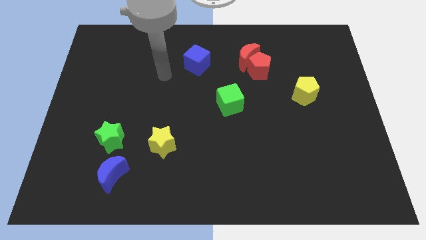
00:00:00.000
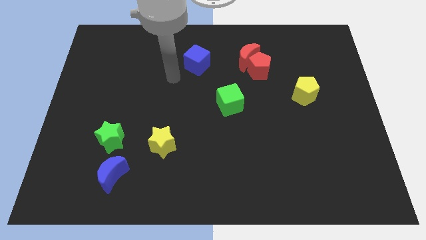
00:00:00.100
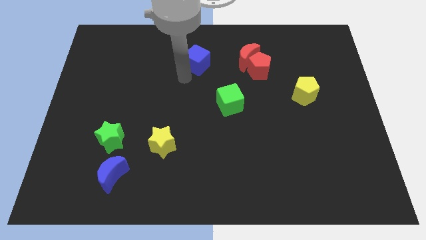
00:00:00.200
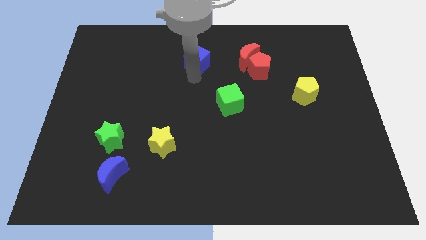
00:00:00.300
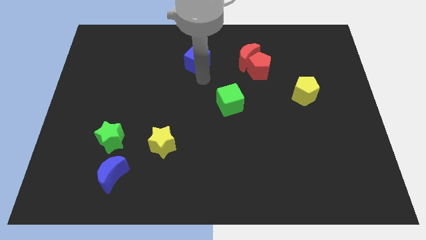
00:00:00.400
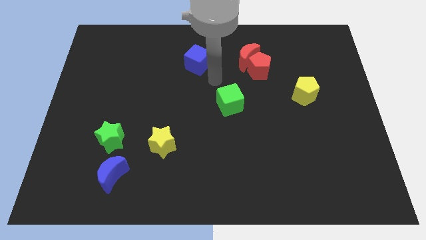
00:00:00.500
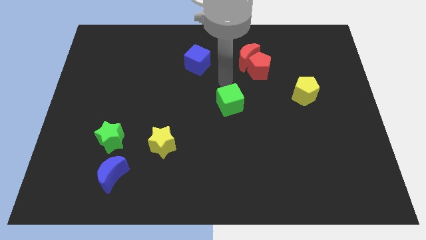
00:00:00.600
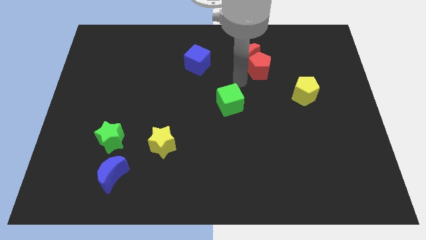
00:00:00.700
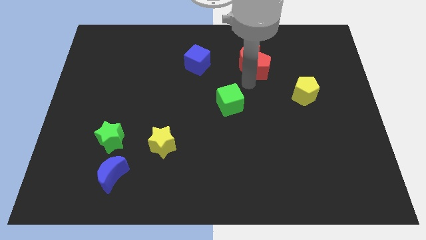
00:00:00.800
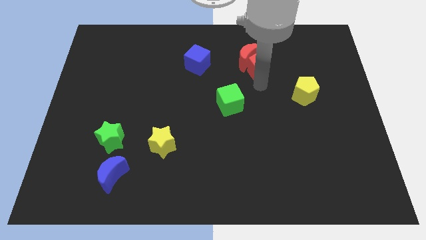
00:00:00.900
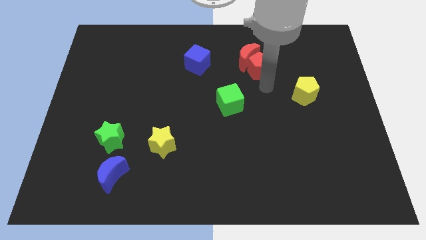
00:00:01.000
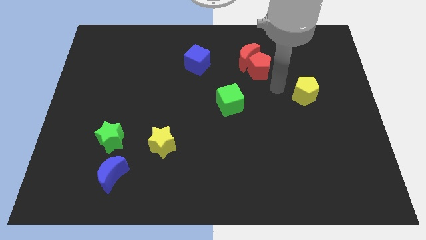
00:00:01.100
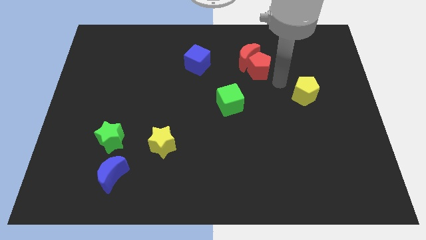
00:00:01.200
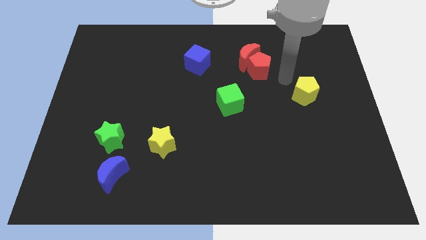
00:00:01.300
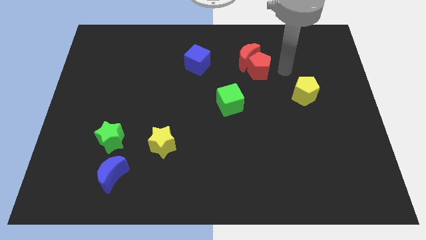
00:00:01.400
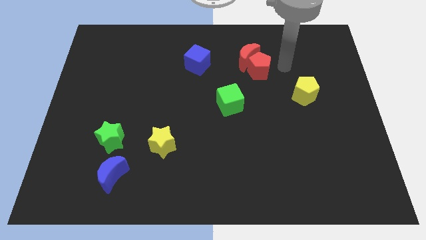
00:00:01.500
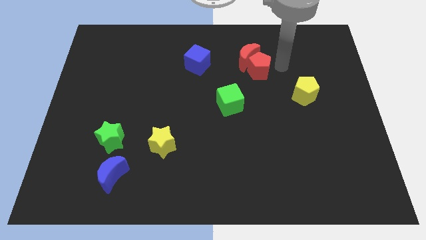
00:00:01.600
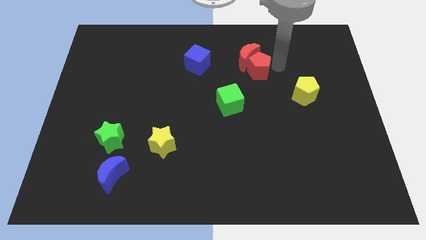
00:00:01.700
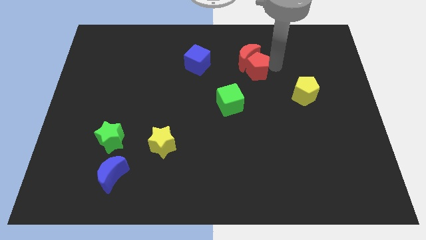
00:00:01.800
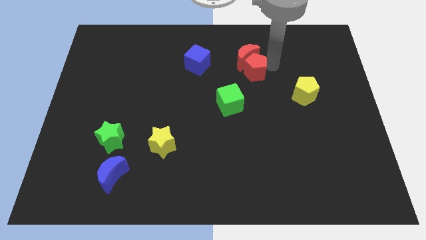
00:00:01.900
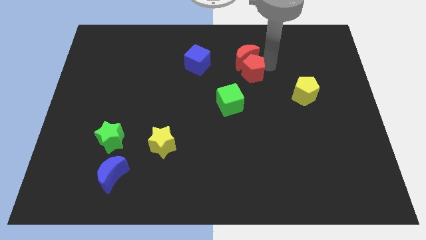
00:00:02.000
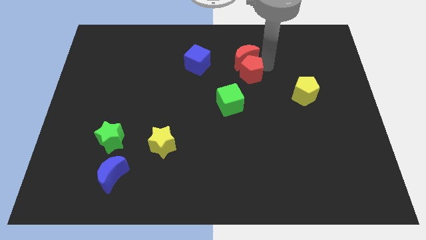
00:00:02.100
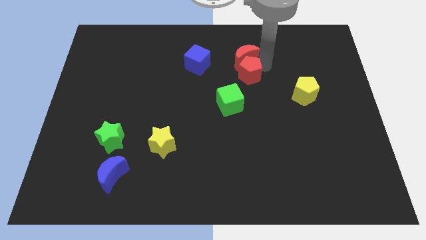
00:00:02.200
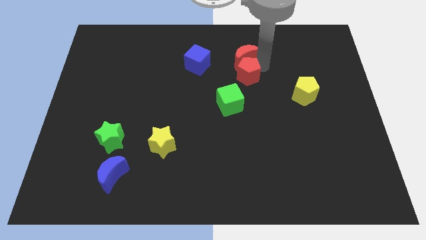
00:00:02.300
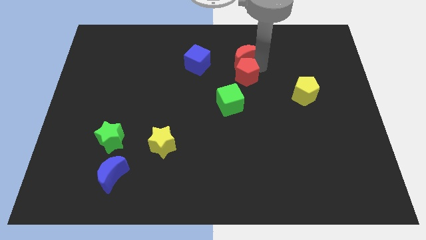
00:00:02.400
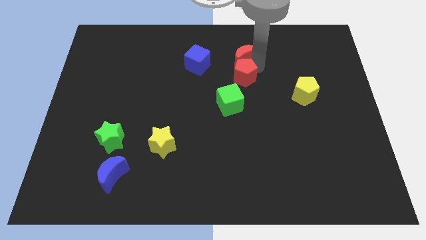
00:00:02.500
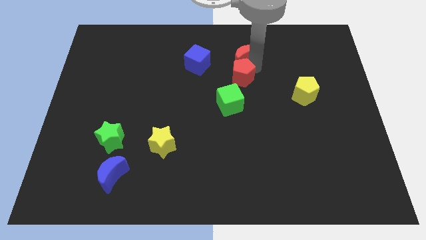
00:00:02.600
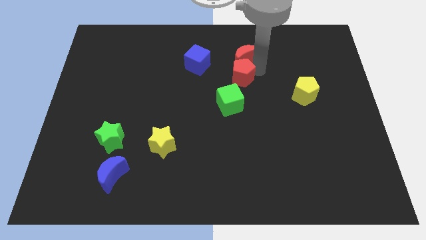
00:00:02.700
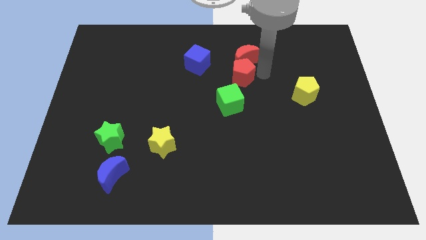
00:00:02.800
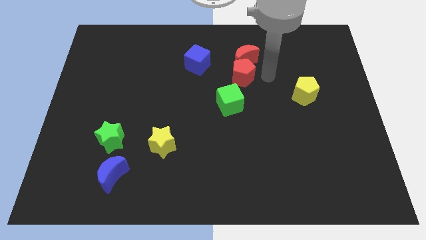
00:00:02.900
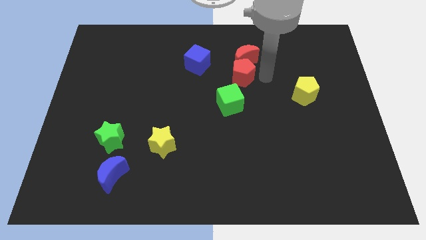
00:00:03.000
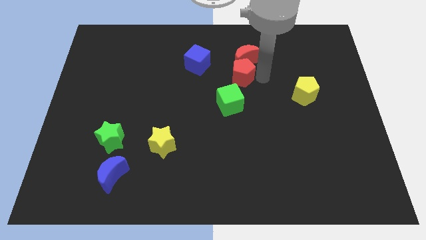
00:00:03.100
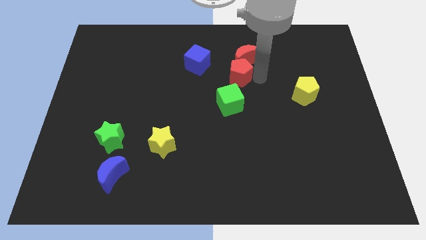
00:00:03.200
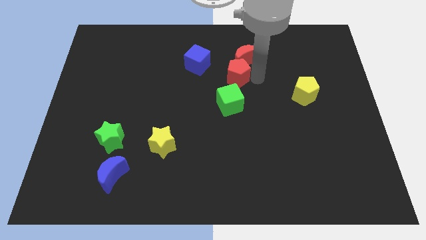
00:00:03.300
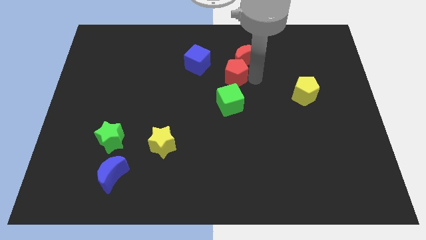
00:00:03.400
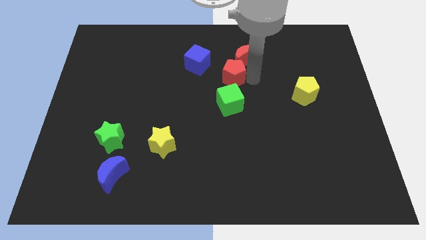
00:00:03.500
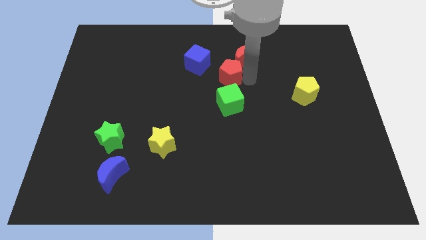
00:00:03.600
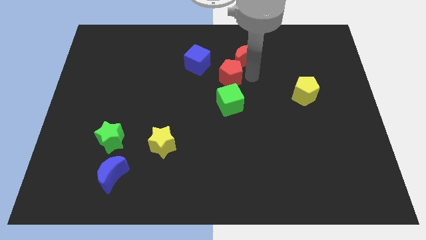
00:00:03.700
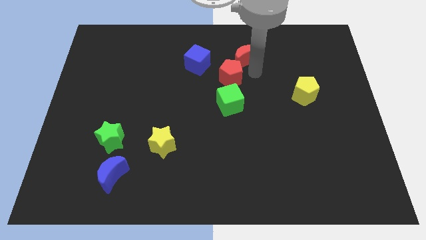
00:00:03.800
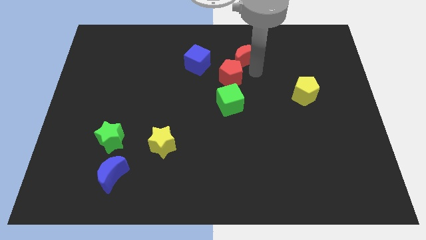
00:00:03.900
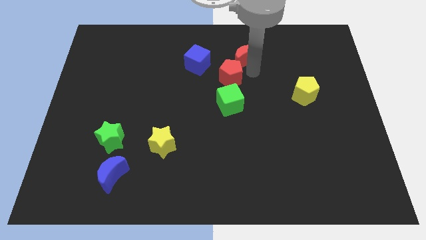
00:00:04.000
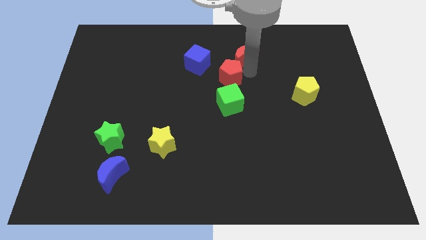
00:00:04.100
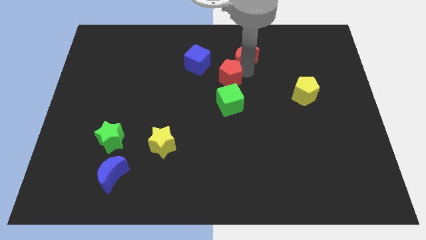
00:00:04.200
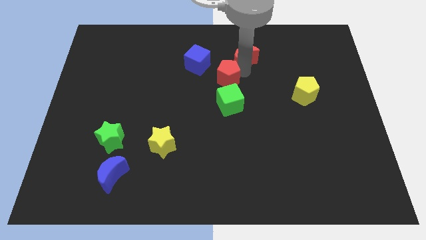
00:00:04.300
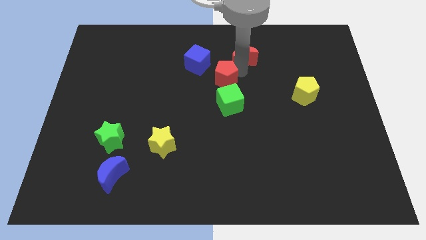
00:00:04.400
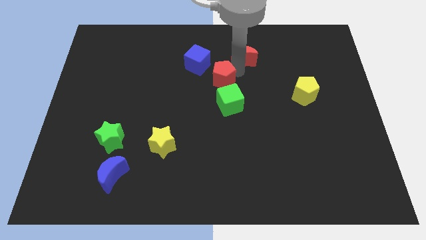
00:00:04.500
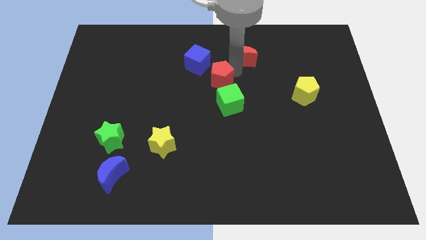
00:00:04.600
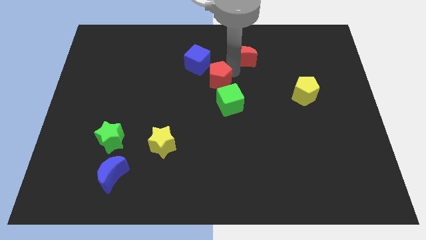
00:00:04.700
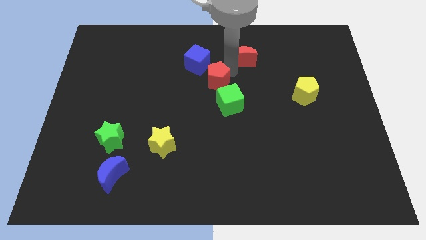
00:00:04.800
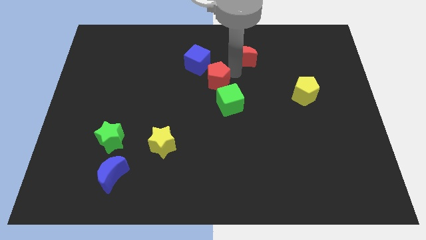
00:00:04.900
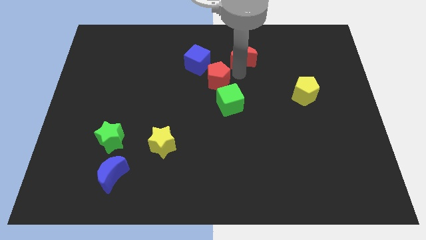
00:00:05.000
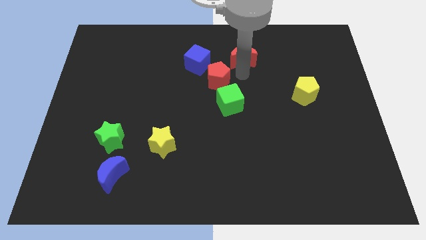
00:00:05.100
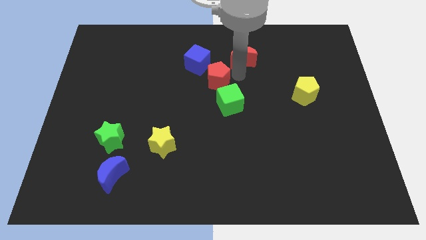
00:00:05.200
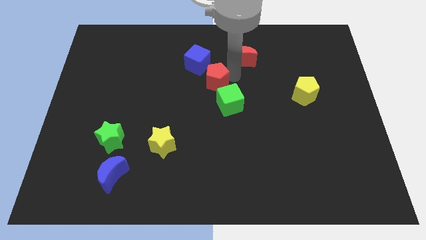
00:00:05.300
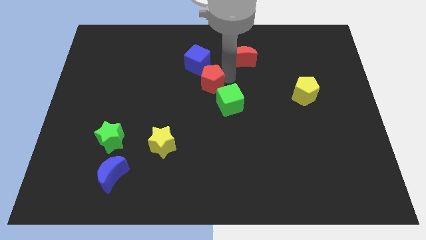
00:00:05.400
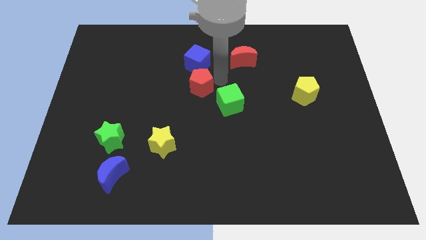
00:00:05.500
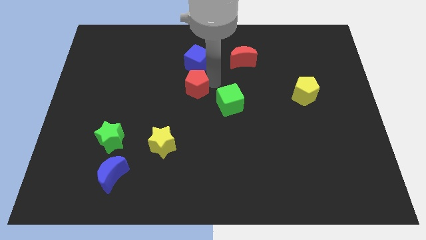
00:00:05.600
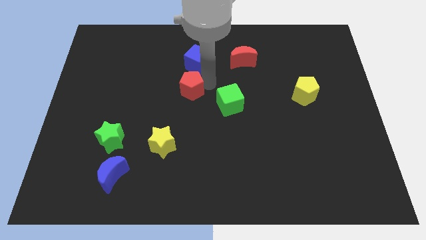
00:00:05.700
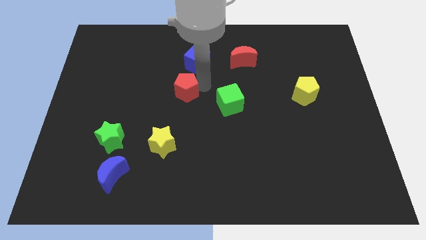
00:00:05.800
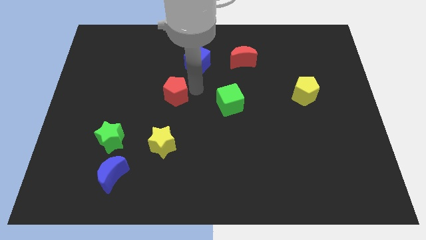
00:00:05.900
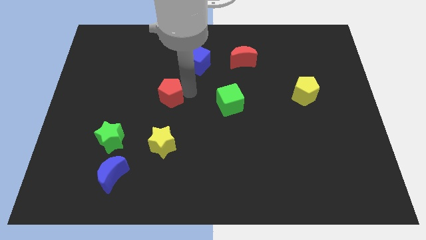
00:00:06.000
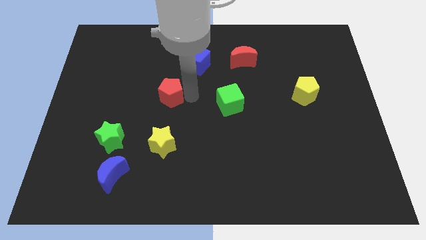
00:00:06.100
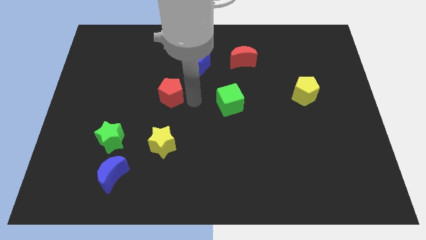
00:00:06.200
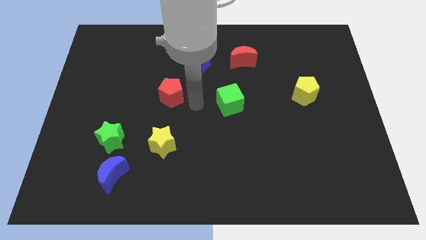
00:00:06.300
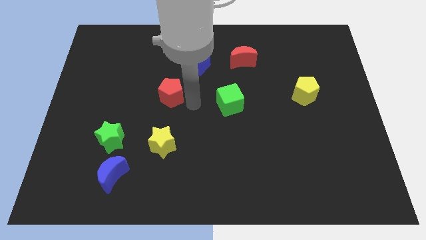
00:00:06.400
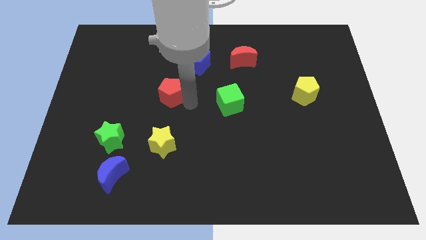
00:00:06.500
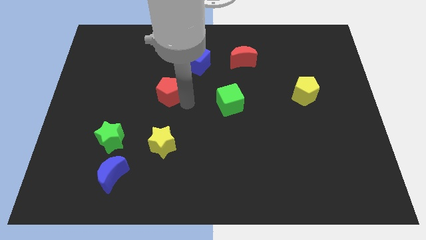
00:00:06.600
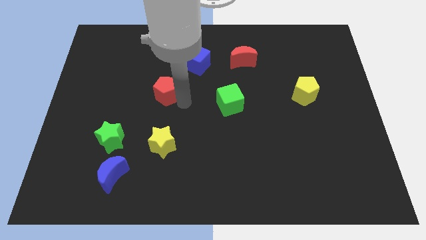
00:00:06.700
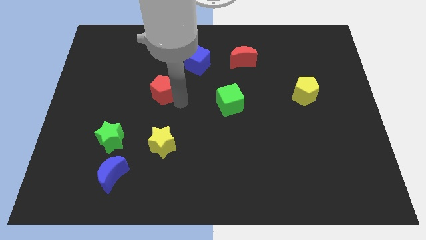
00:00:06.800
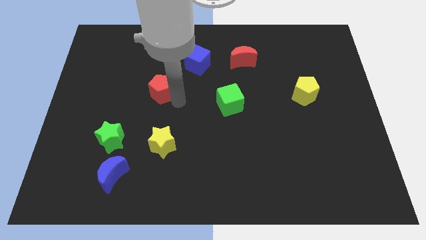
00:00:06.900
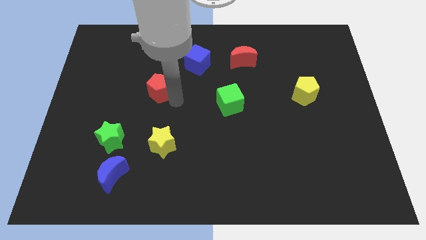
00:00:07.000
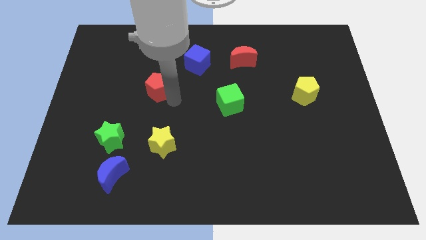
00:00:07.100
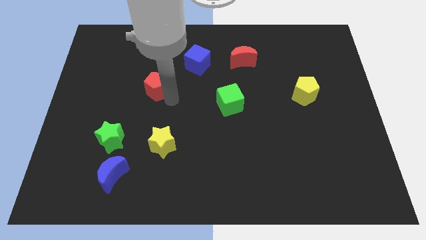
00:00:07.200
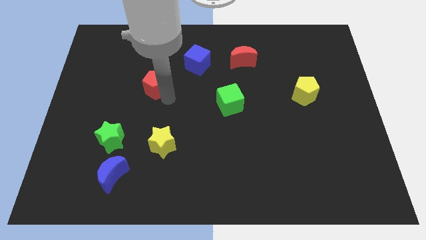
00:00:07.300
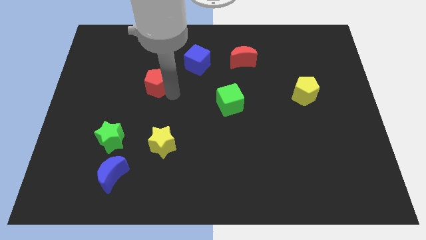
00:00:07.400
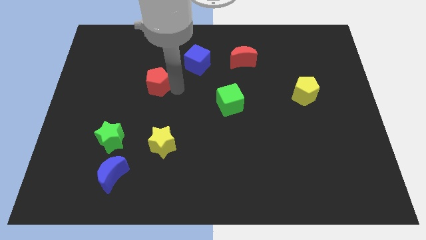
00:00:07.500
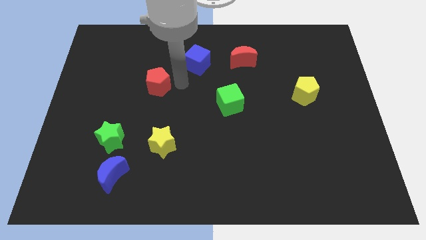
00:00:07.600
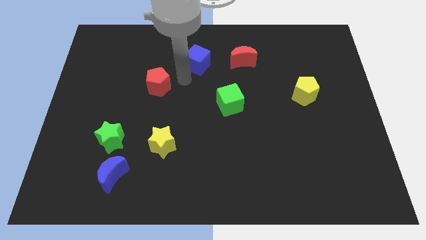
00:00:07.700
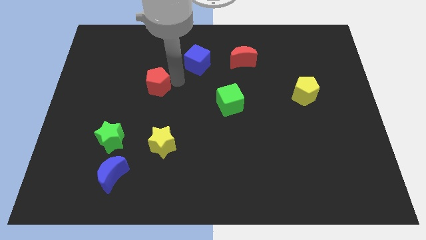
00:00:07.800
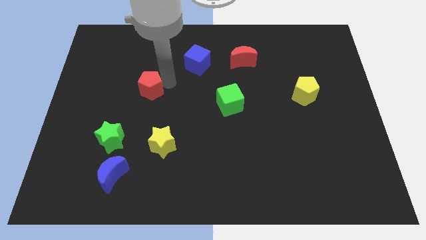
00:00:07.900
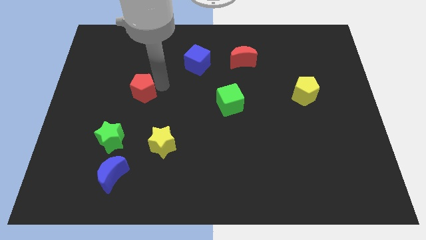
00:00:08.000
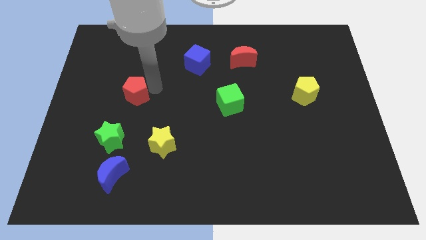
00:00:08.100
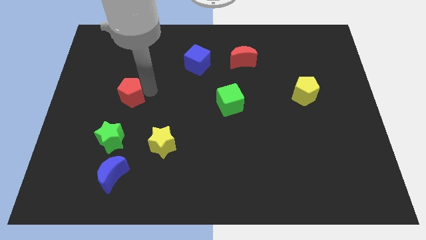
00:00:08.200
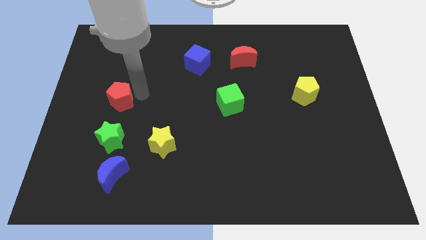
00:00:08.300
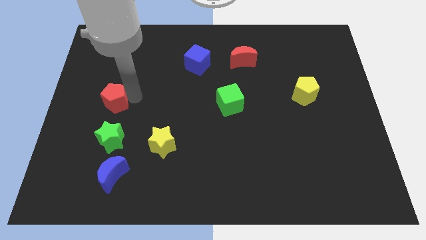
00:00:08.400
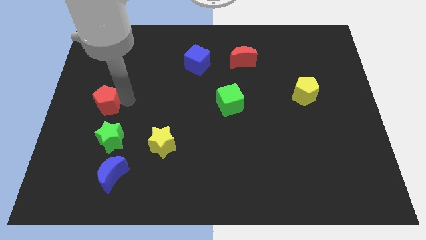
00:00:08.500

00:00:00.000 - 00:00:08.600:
slide the red pentagon to the left side of the board
